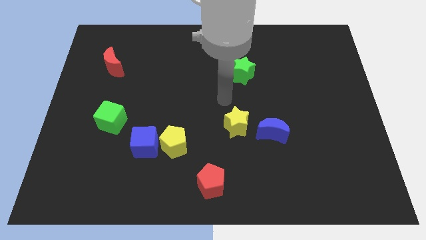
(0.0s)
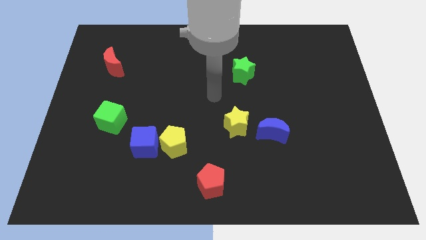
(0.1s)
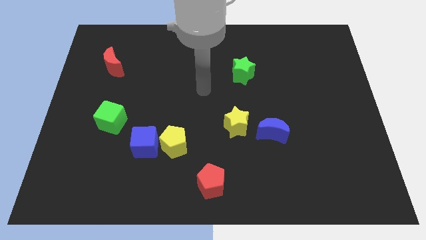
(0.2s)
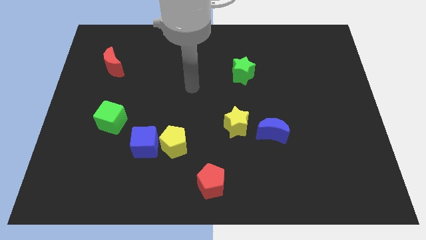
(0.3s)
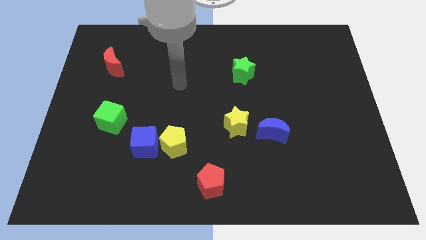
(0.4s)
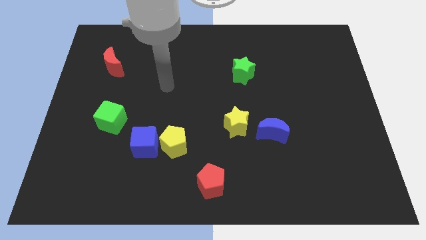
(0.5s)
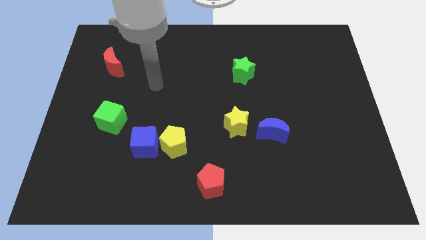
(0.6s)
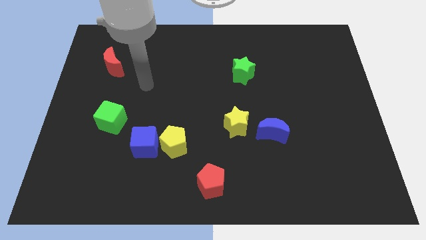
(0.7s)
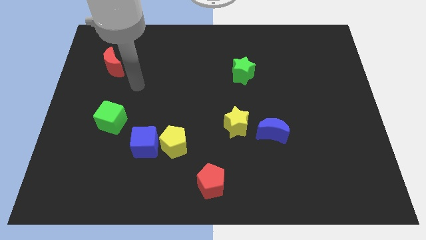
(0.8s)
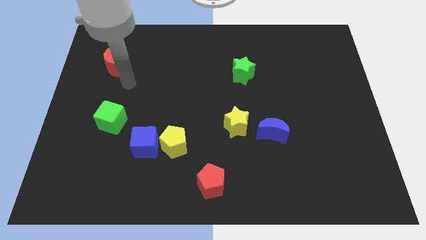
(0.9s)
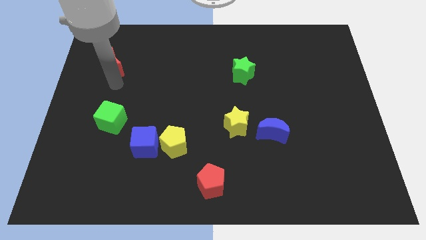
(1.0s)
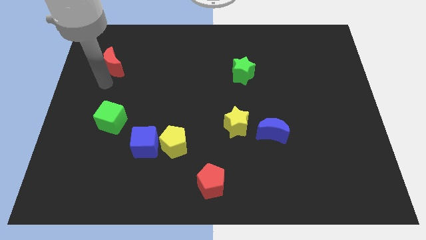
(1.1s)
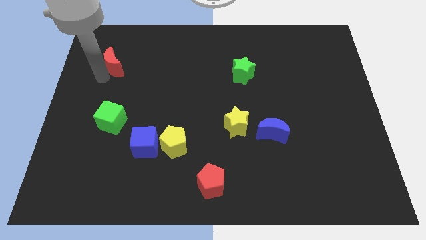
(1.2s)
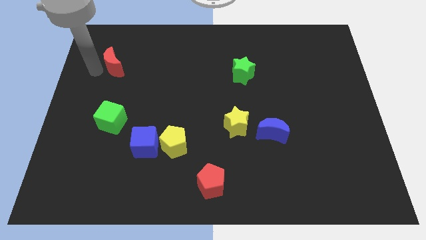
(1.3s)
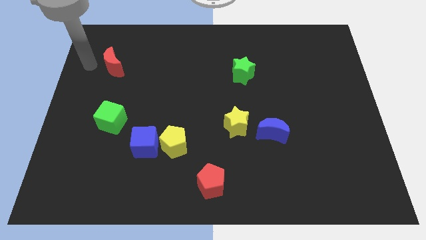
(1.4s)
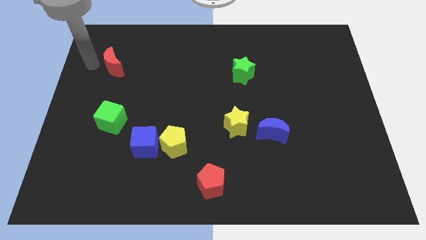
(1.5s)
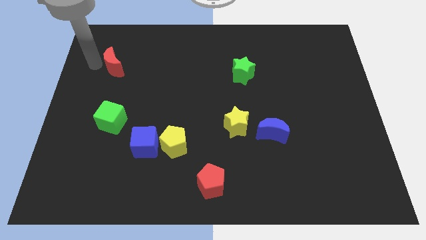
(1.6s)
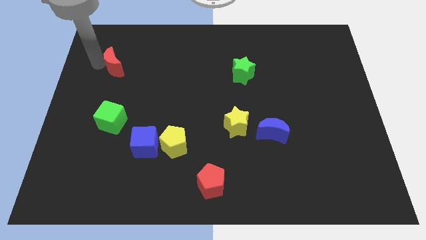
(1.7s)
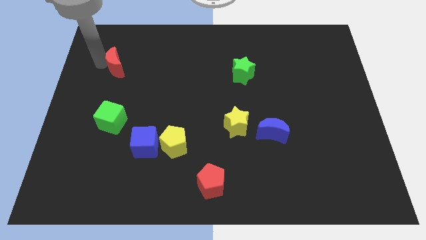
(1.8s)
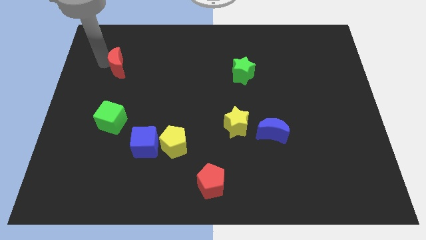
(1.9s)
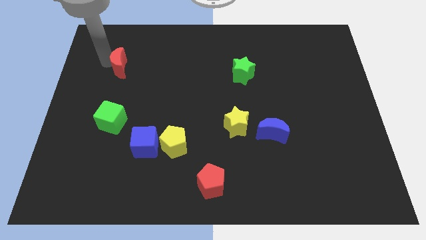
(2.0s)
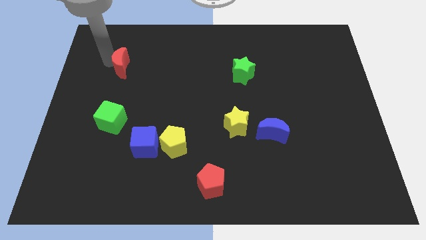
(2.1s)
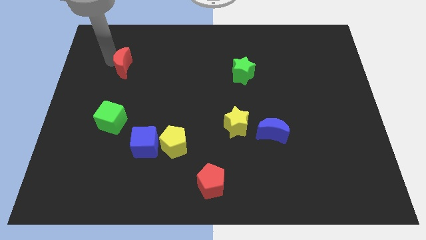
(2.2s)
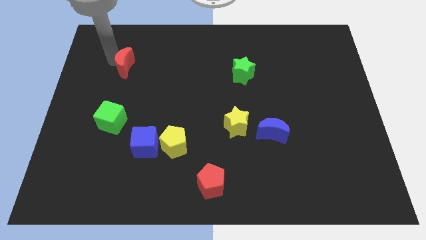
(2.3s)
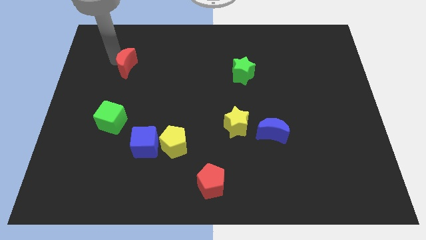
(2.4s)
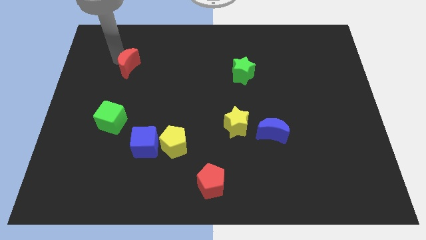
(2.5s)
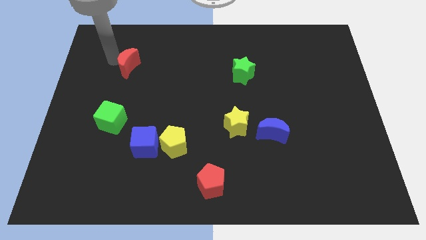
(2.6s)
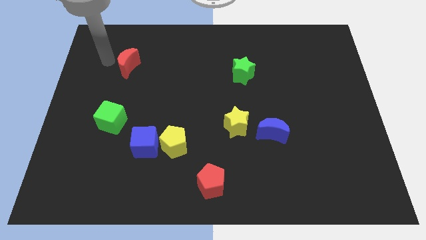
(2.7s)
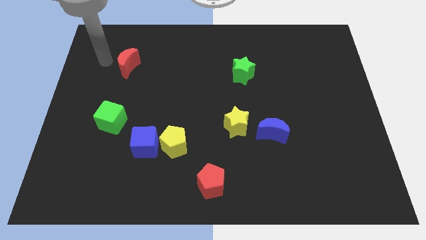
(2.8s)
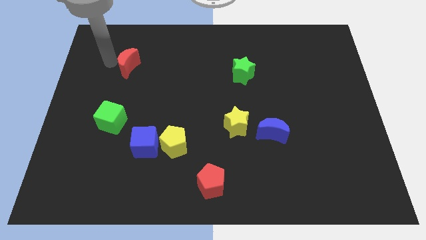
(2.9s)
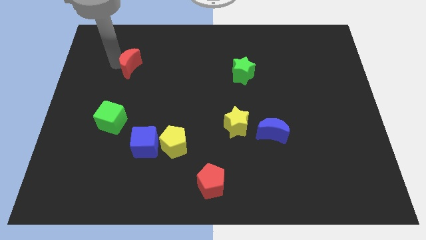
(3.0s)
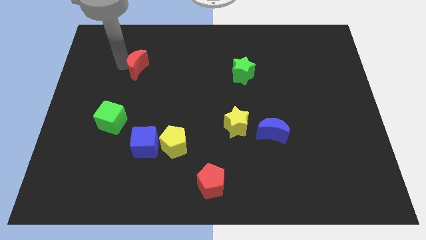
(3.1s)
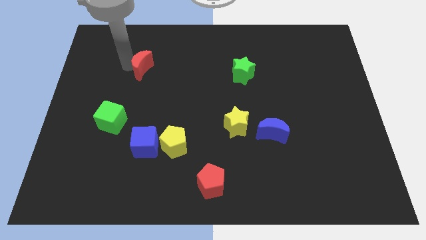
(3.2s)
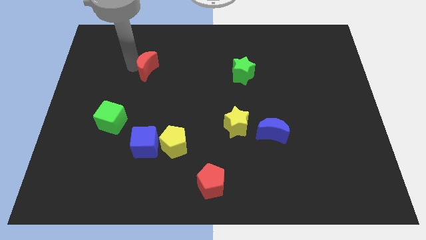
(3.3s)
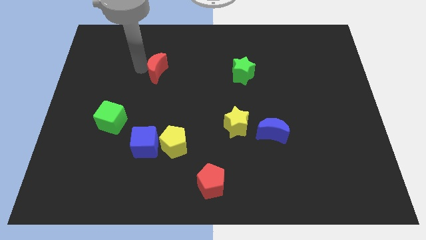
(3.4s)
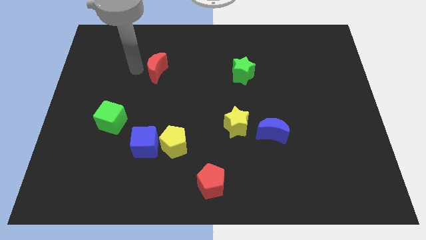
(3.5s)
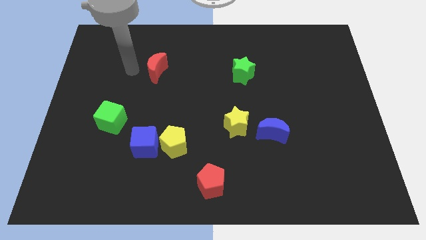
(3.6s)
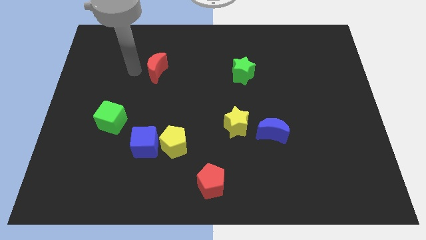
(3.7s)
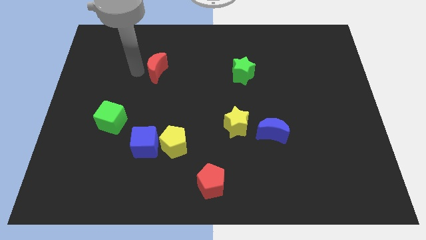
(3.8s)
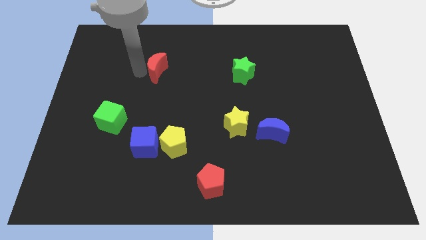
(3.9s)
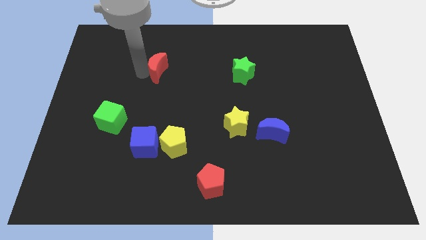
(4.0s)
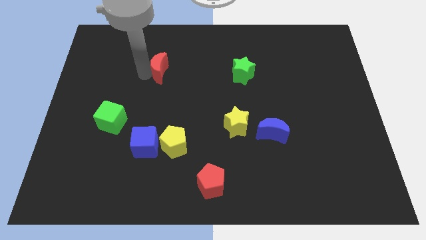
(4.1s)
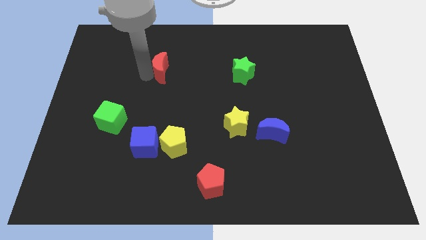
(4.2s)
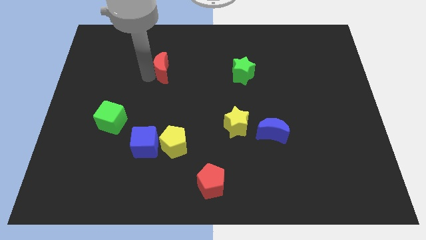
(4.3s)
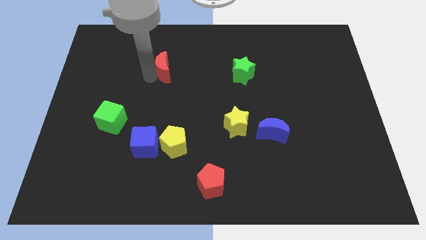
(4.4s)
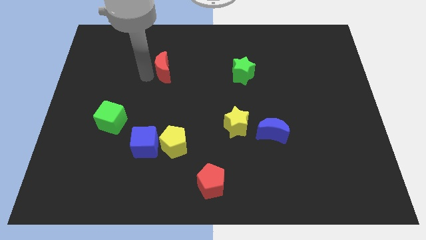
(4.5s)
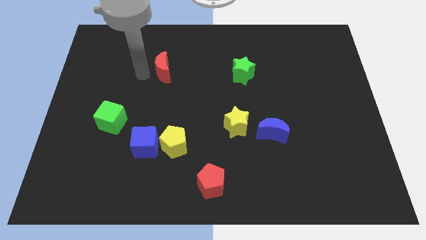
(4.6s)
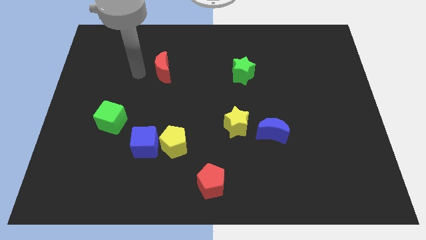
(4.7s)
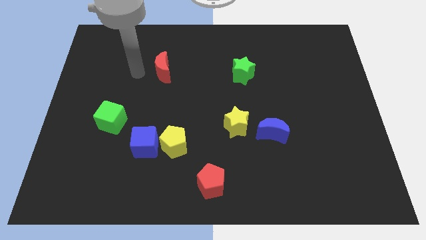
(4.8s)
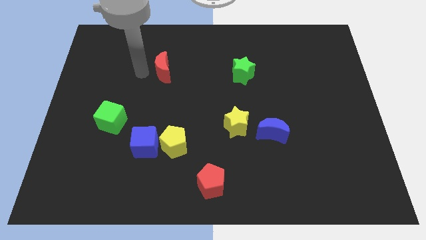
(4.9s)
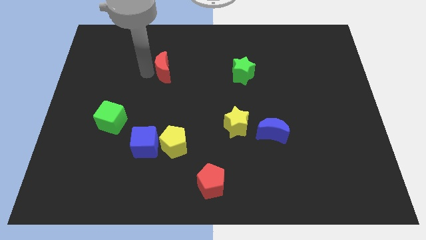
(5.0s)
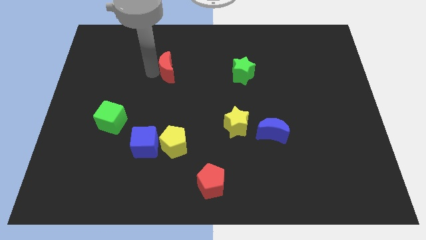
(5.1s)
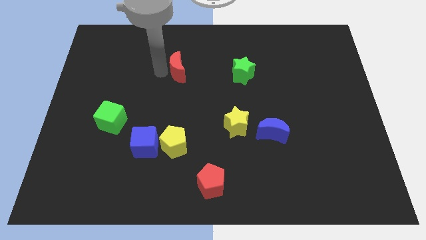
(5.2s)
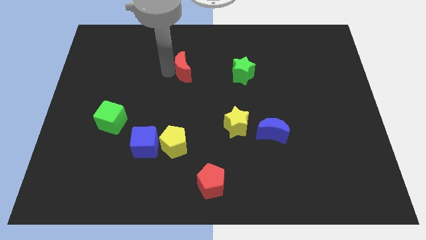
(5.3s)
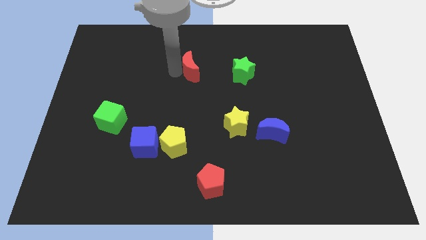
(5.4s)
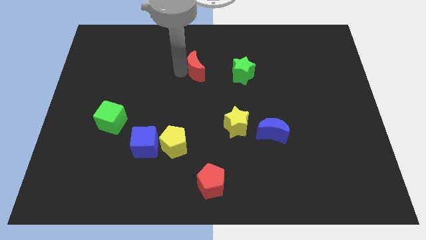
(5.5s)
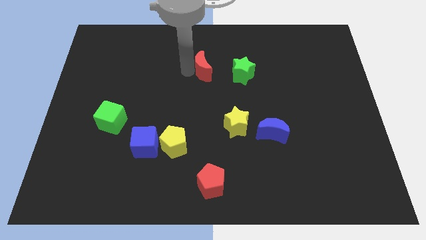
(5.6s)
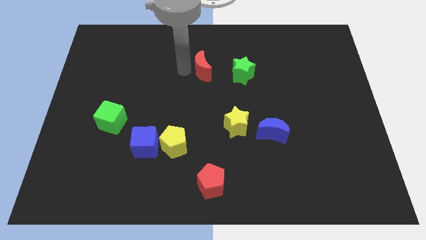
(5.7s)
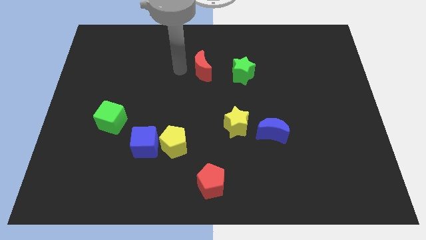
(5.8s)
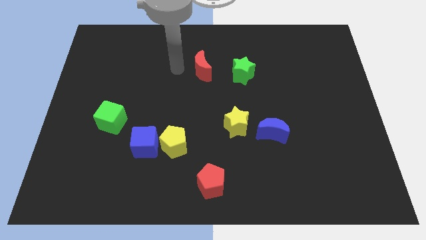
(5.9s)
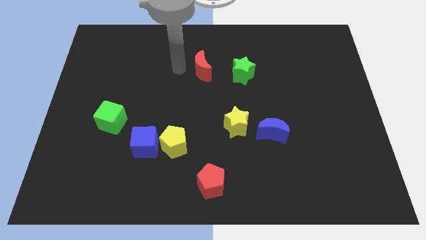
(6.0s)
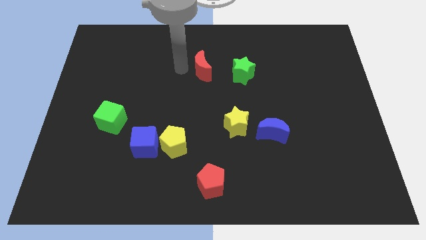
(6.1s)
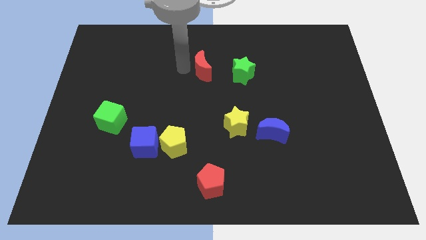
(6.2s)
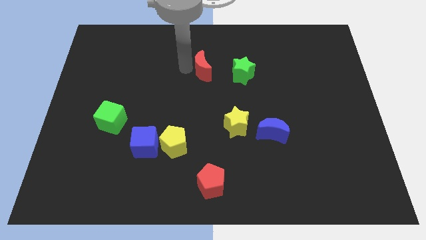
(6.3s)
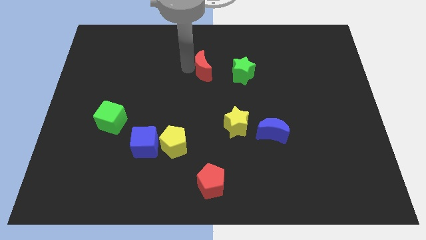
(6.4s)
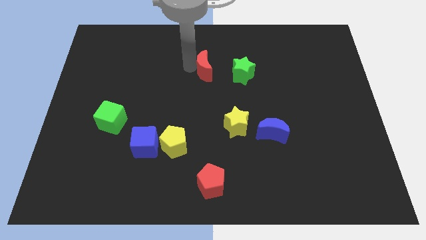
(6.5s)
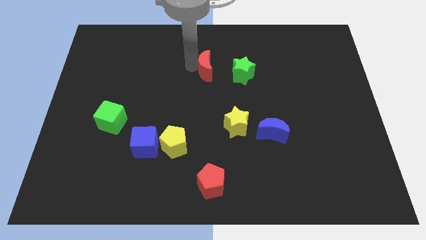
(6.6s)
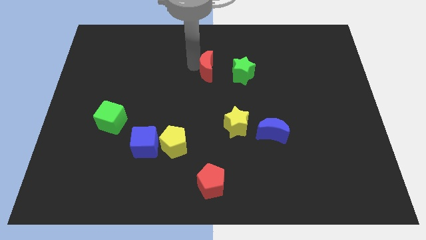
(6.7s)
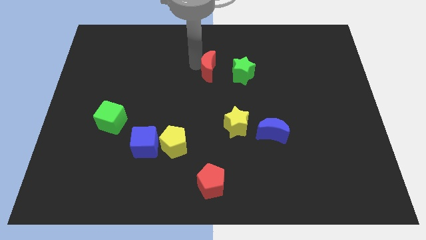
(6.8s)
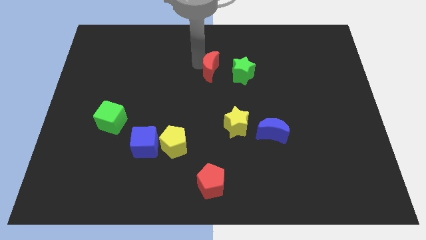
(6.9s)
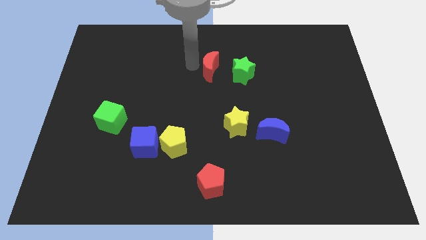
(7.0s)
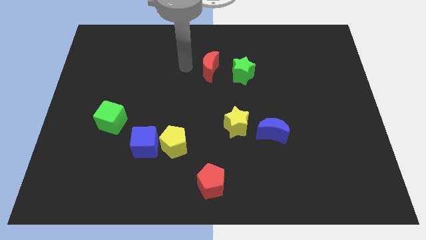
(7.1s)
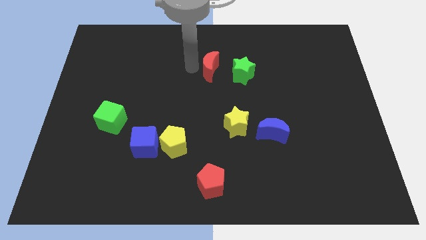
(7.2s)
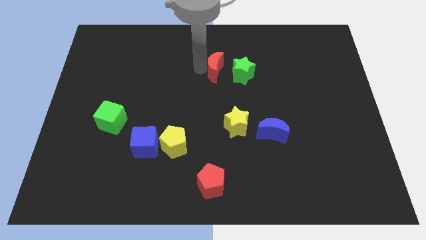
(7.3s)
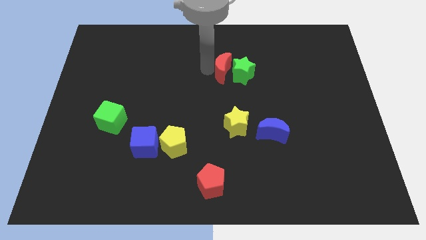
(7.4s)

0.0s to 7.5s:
slide the red moon towards the green star
